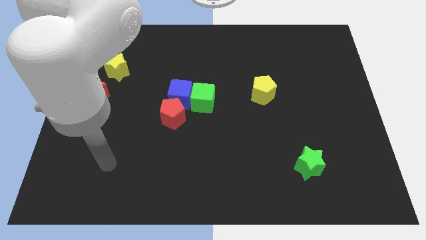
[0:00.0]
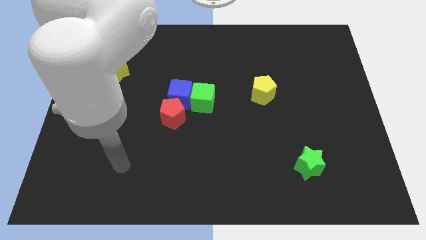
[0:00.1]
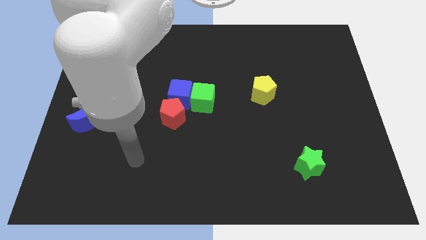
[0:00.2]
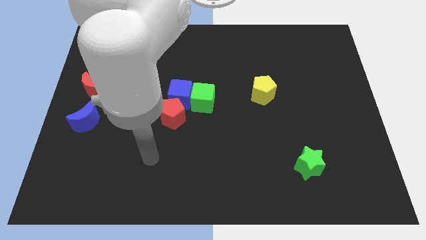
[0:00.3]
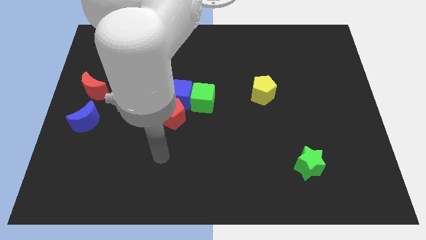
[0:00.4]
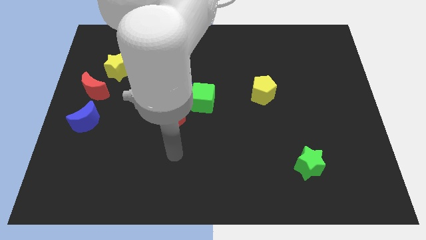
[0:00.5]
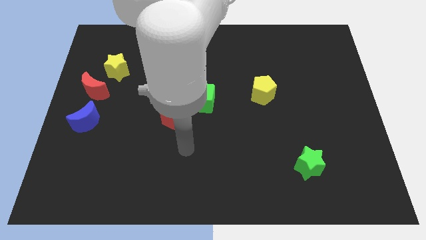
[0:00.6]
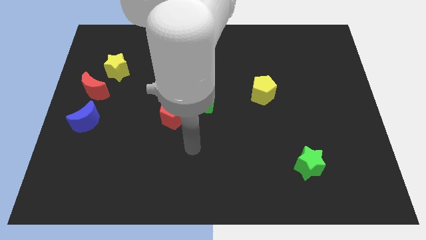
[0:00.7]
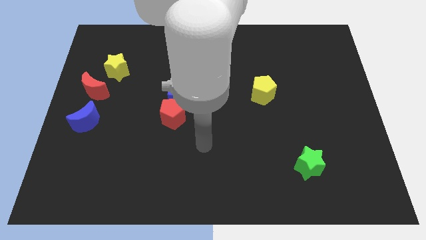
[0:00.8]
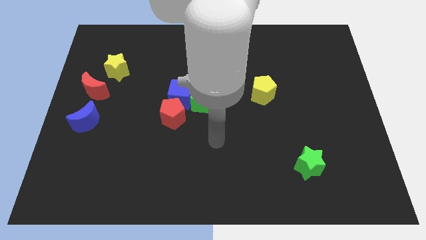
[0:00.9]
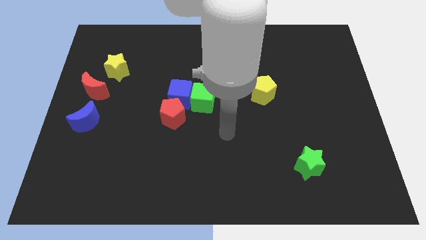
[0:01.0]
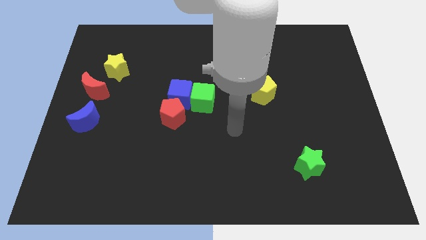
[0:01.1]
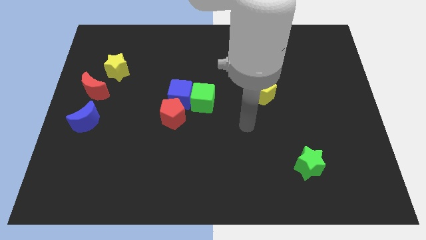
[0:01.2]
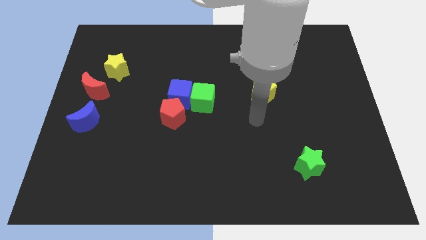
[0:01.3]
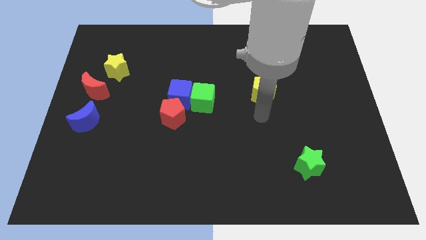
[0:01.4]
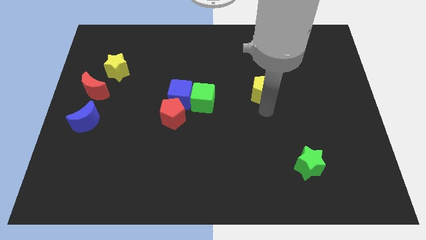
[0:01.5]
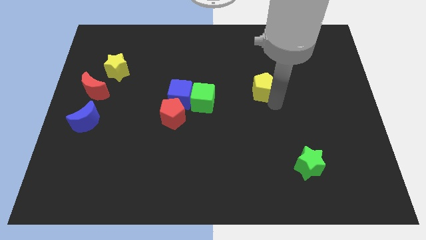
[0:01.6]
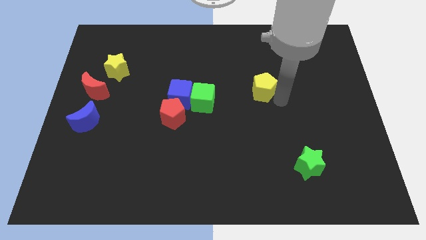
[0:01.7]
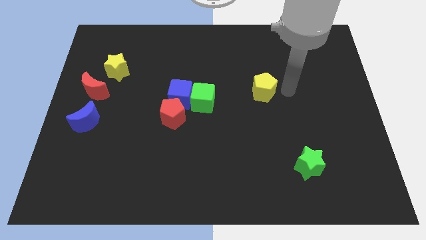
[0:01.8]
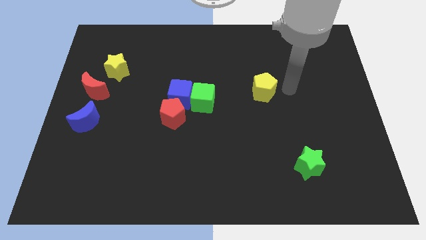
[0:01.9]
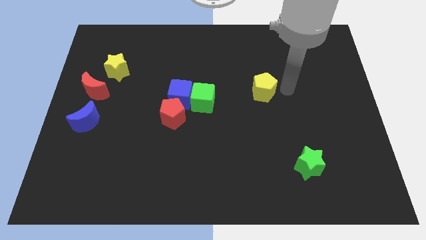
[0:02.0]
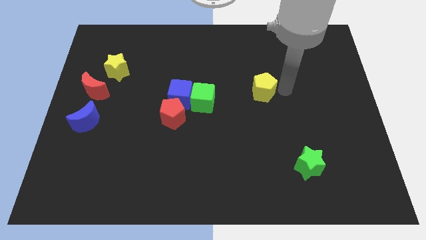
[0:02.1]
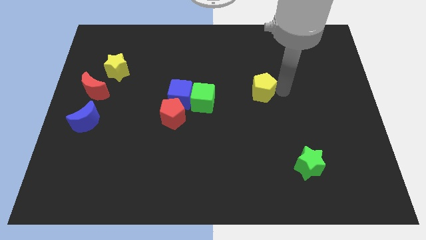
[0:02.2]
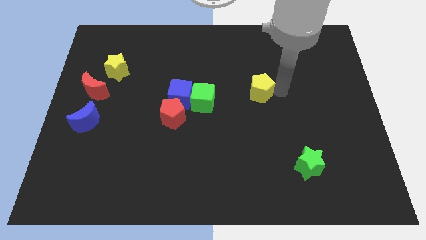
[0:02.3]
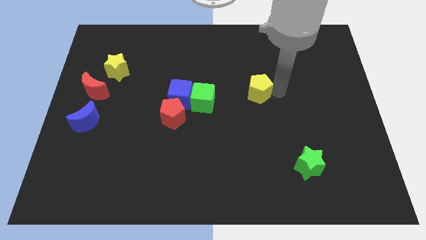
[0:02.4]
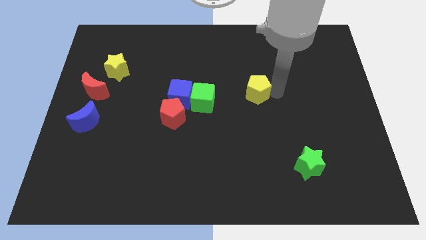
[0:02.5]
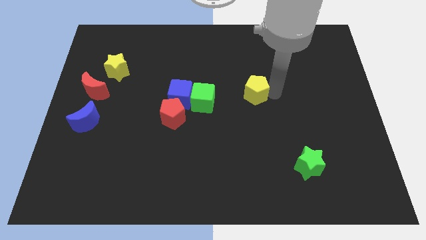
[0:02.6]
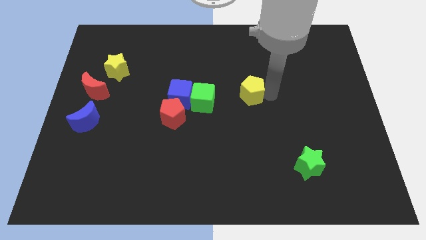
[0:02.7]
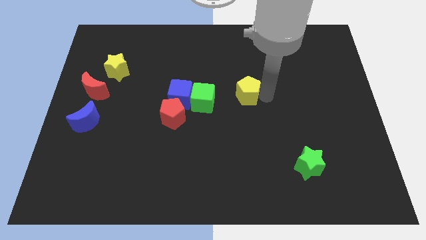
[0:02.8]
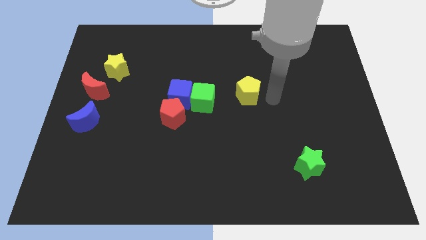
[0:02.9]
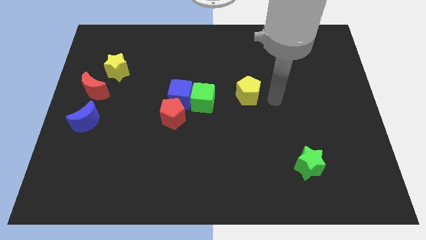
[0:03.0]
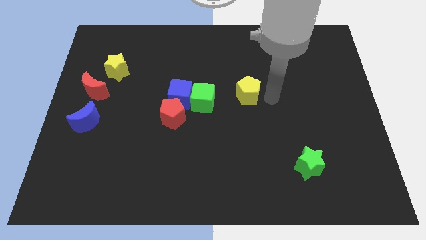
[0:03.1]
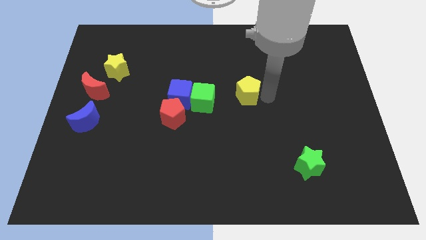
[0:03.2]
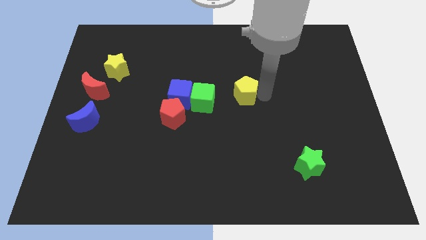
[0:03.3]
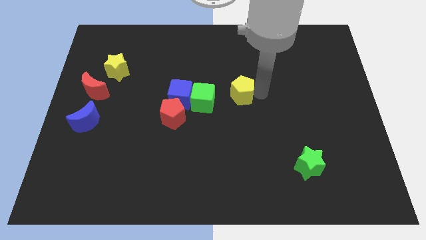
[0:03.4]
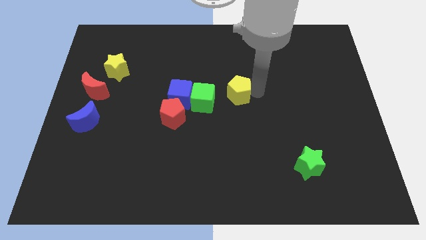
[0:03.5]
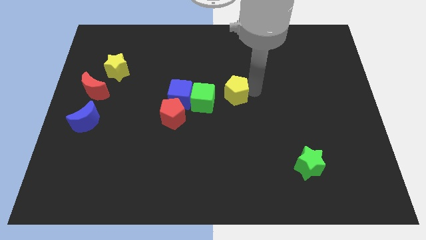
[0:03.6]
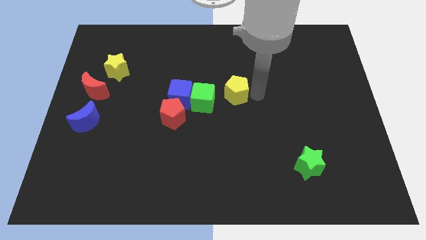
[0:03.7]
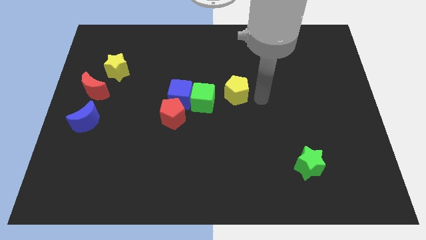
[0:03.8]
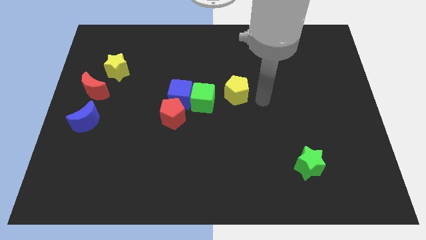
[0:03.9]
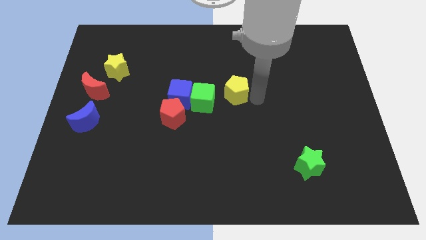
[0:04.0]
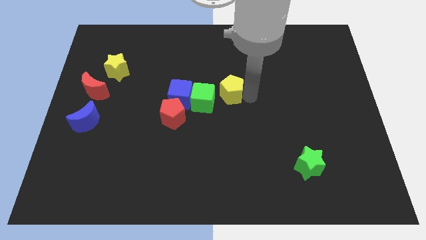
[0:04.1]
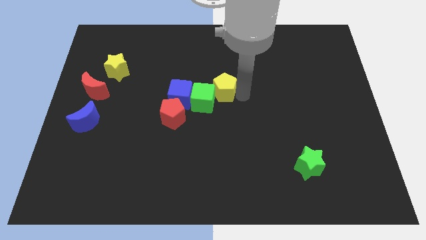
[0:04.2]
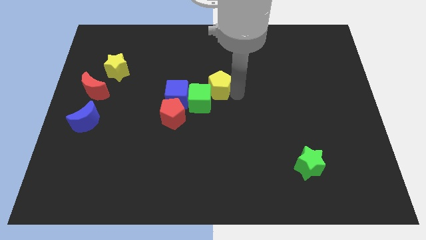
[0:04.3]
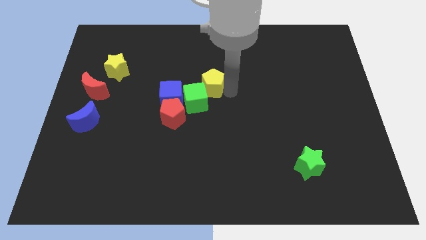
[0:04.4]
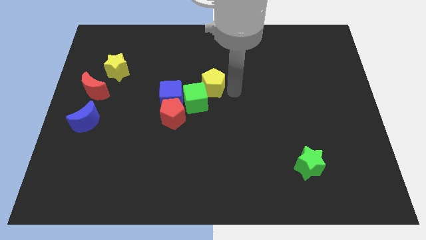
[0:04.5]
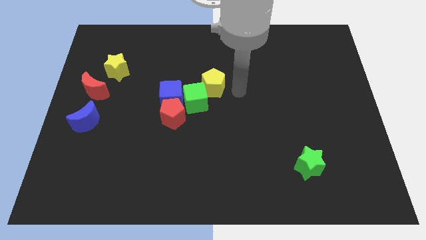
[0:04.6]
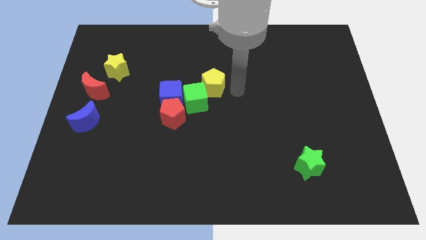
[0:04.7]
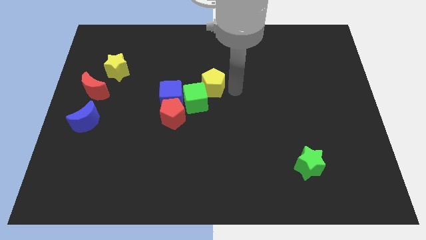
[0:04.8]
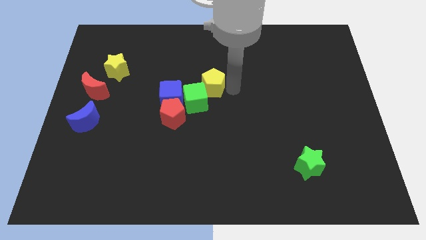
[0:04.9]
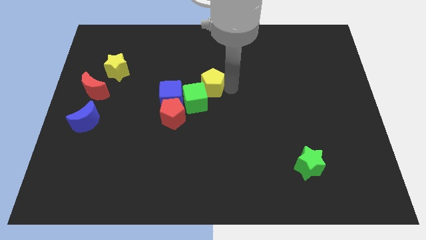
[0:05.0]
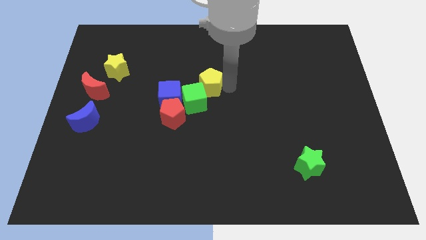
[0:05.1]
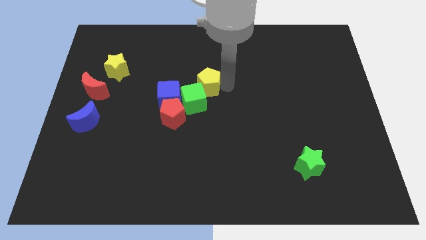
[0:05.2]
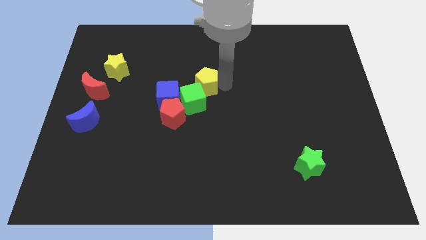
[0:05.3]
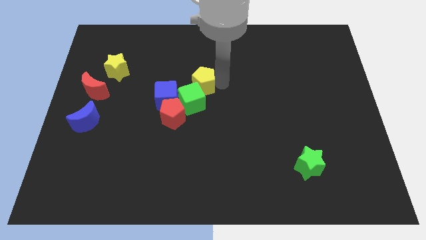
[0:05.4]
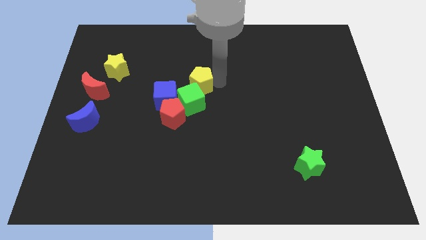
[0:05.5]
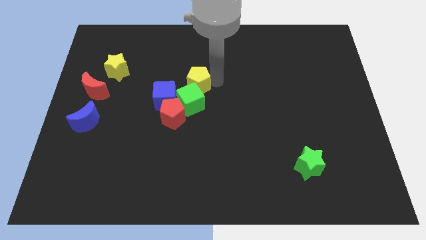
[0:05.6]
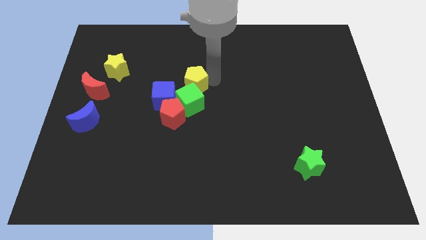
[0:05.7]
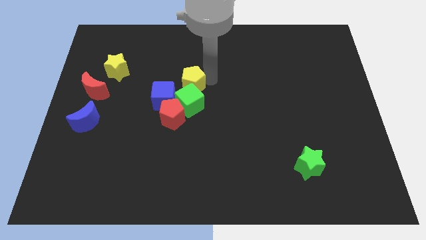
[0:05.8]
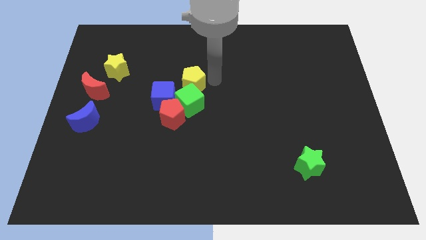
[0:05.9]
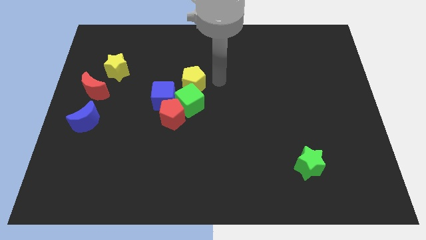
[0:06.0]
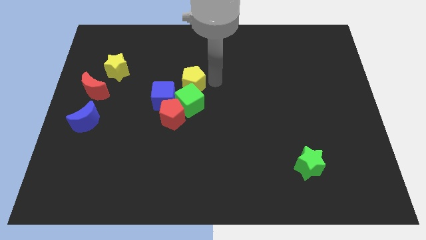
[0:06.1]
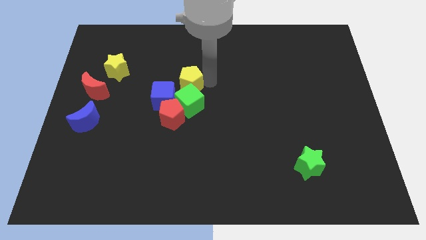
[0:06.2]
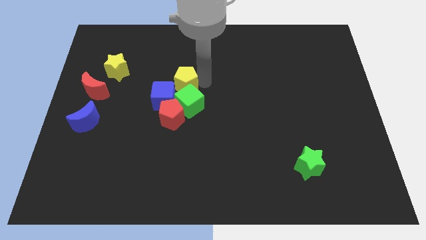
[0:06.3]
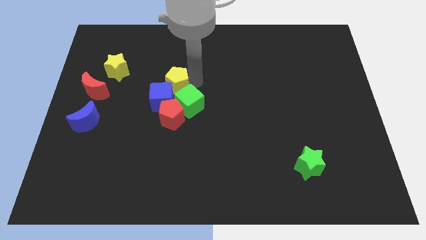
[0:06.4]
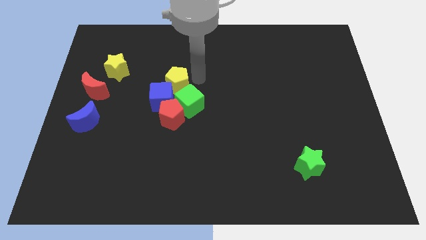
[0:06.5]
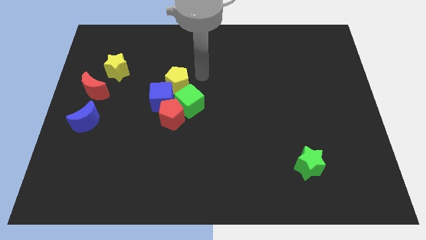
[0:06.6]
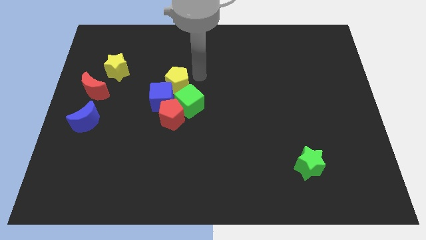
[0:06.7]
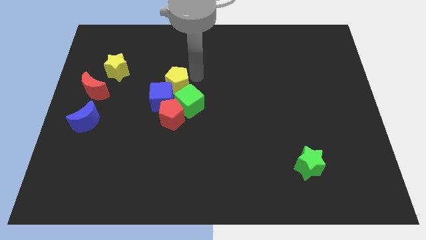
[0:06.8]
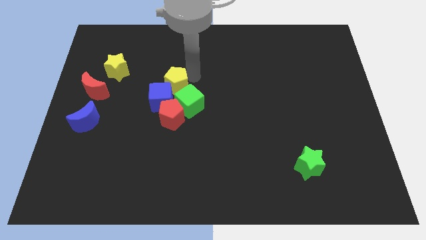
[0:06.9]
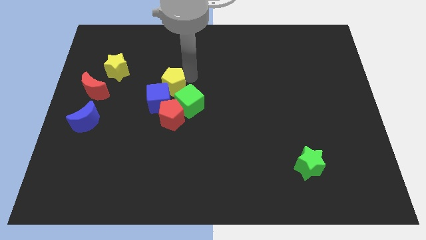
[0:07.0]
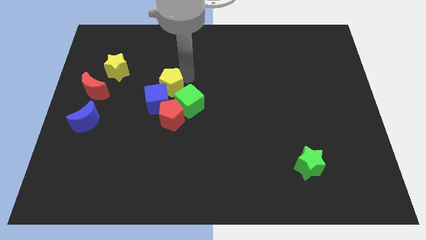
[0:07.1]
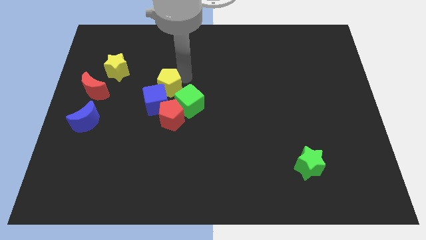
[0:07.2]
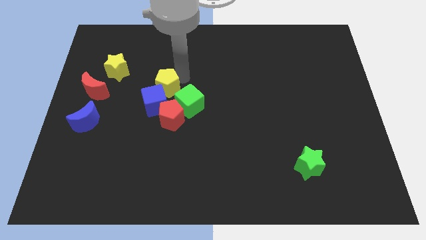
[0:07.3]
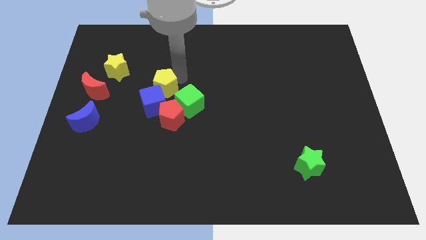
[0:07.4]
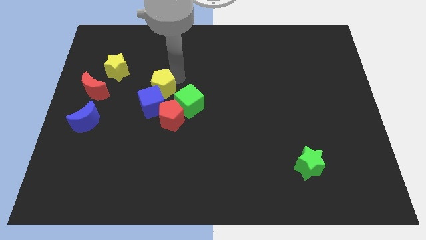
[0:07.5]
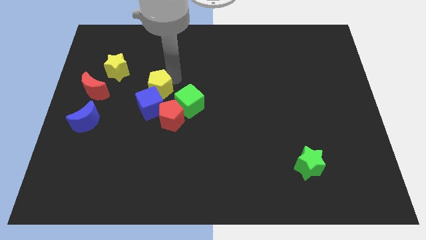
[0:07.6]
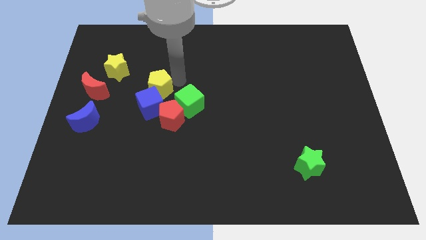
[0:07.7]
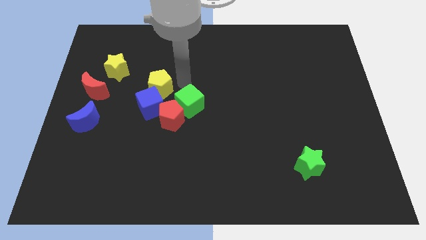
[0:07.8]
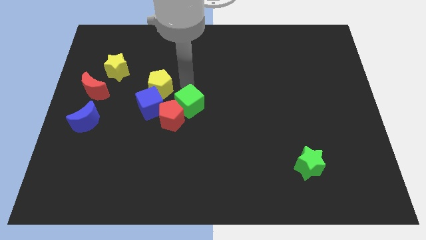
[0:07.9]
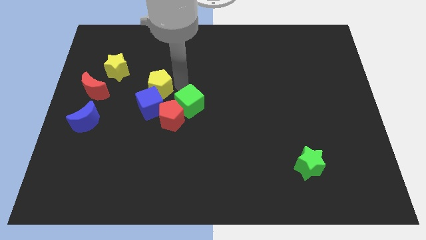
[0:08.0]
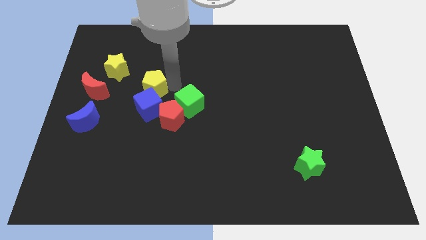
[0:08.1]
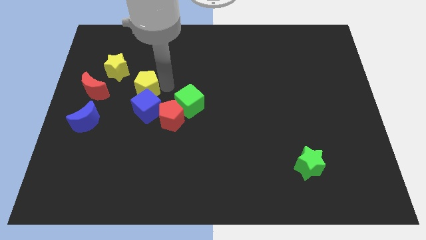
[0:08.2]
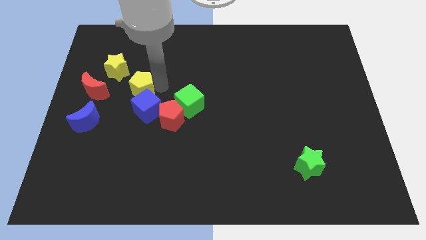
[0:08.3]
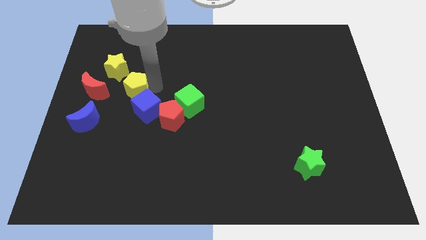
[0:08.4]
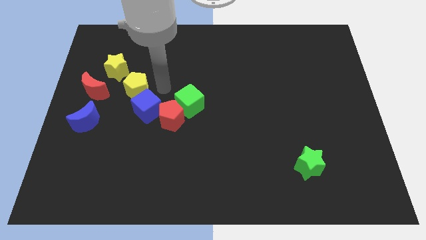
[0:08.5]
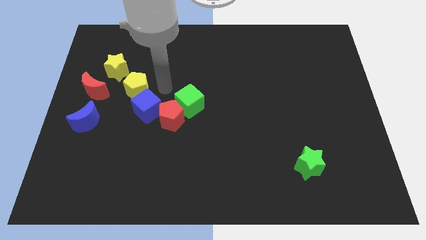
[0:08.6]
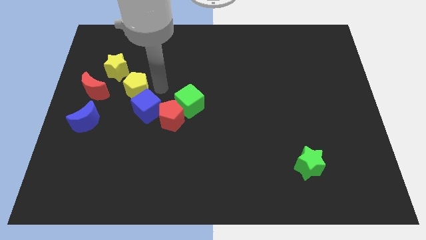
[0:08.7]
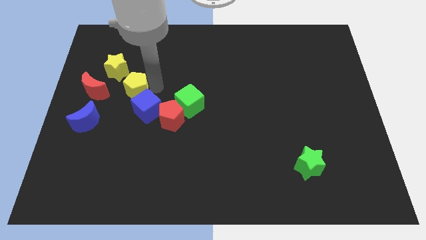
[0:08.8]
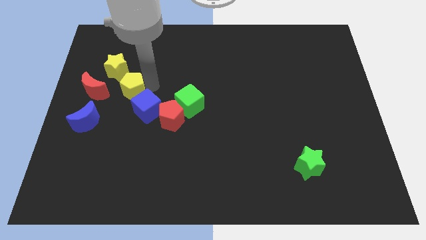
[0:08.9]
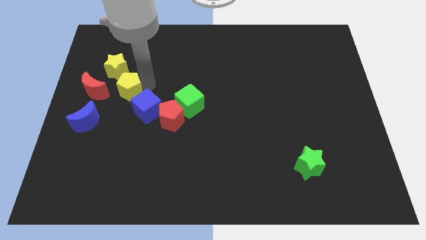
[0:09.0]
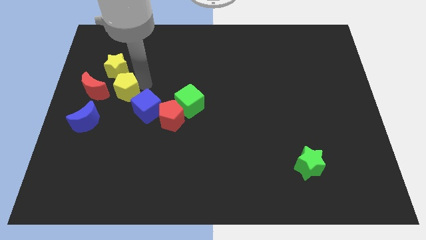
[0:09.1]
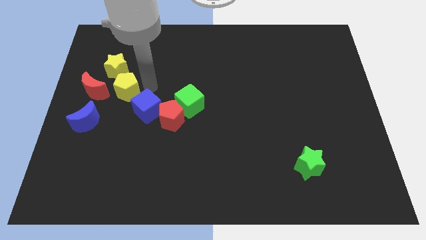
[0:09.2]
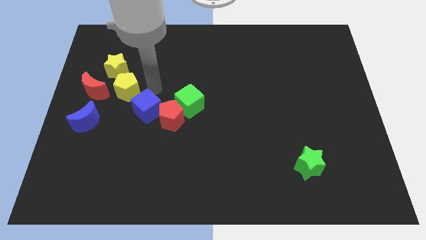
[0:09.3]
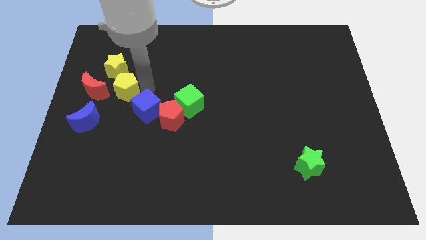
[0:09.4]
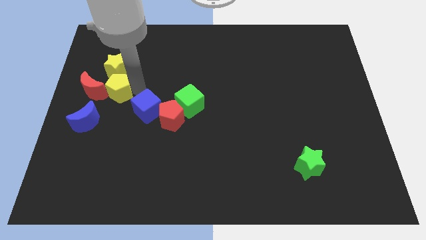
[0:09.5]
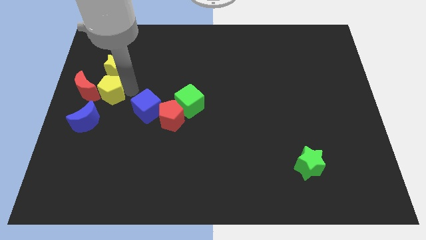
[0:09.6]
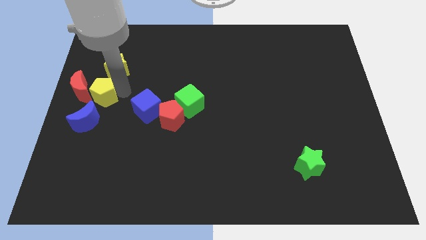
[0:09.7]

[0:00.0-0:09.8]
push the yellow pentagon to the red moon
